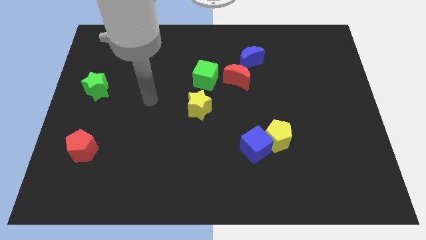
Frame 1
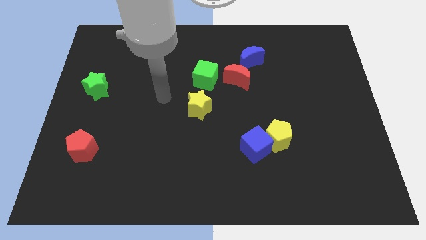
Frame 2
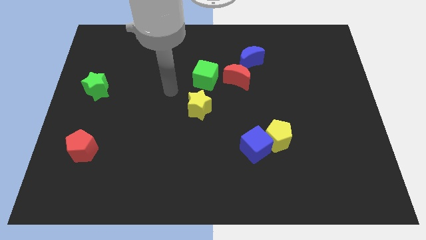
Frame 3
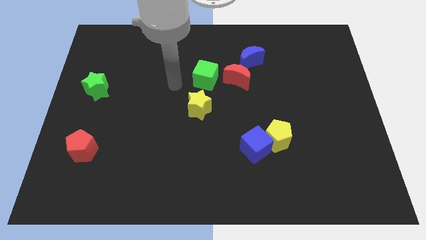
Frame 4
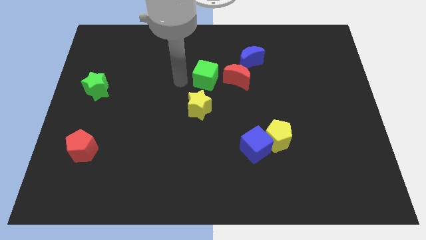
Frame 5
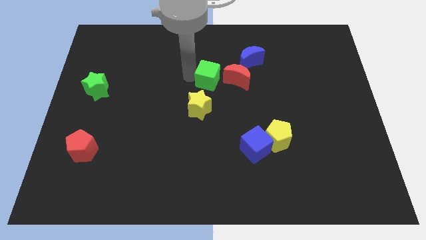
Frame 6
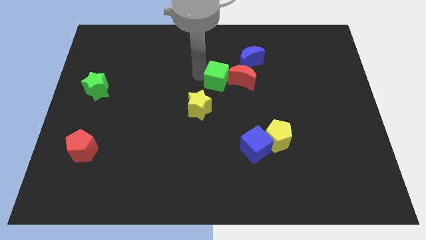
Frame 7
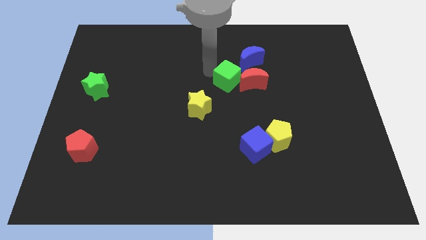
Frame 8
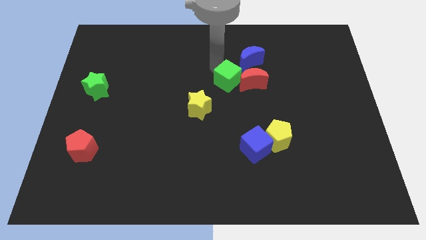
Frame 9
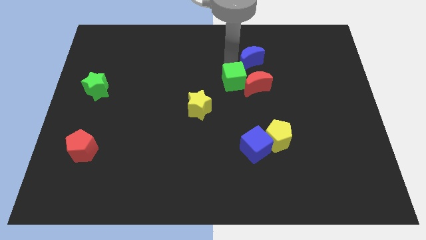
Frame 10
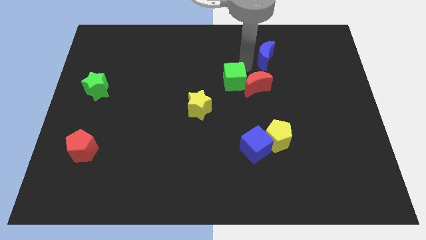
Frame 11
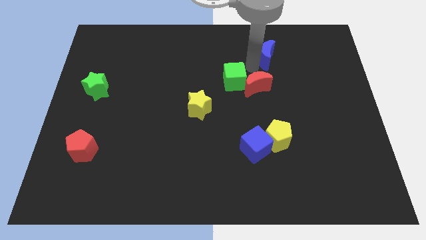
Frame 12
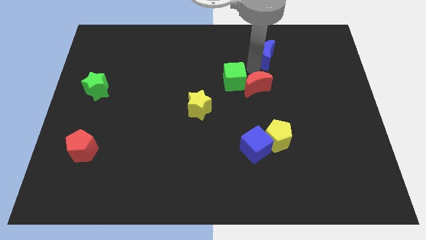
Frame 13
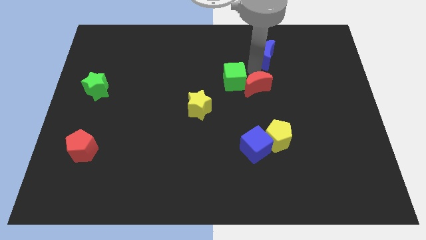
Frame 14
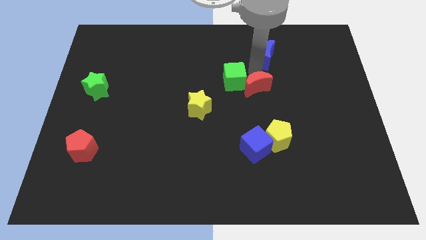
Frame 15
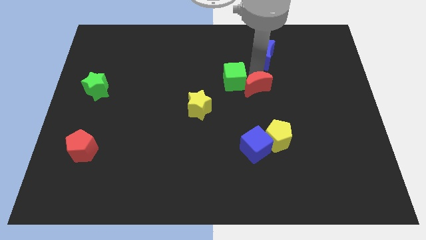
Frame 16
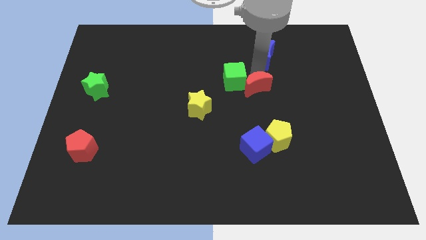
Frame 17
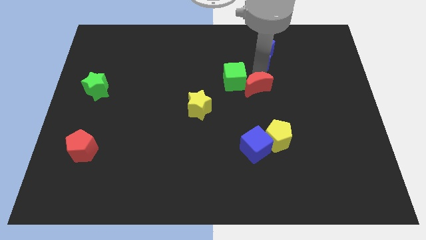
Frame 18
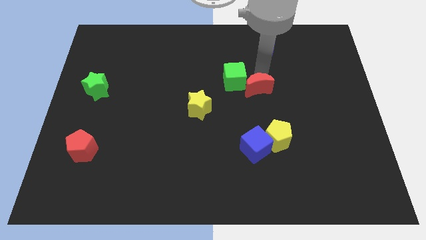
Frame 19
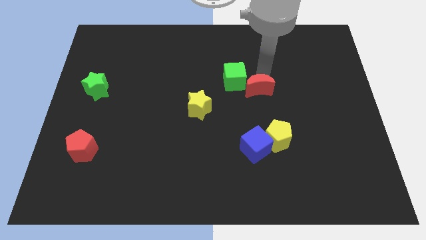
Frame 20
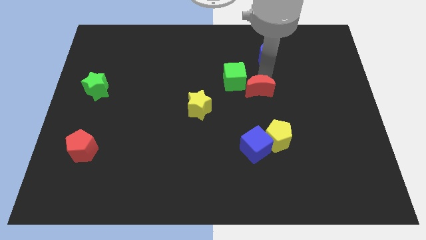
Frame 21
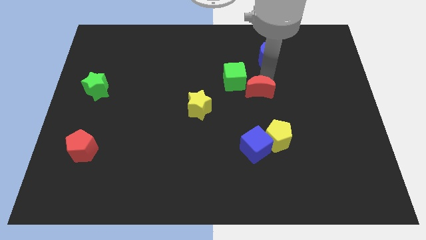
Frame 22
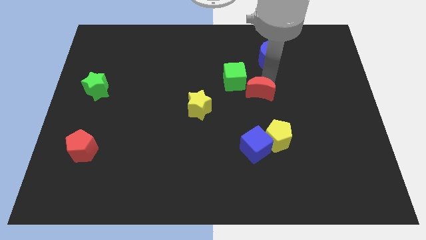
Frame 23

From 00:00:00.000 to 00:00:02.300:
push the red moon downwards and then right a bit

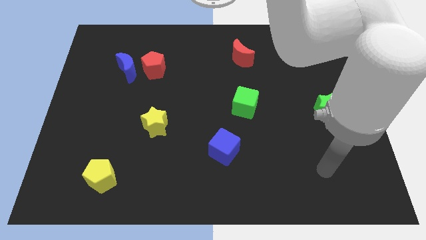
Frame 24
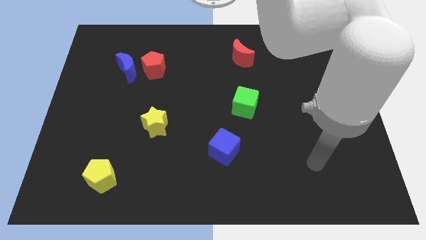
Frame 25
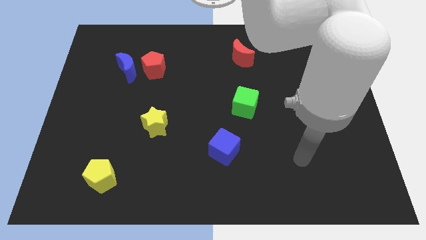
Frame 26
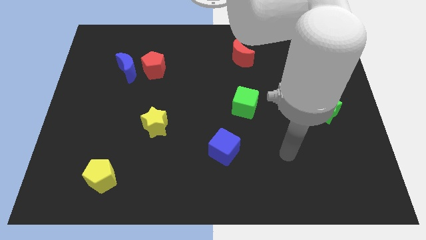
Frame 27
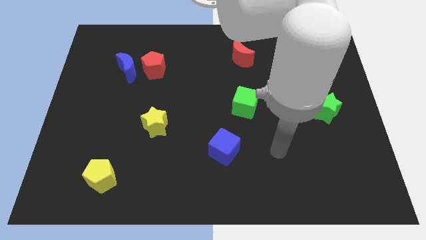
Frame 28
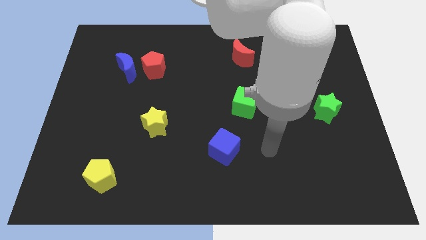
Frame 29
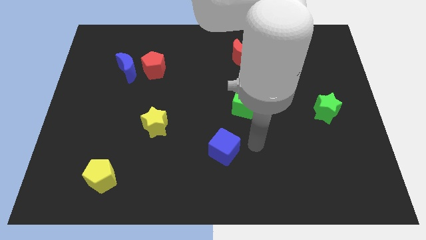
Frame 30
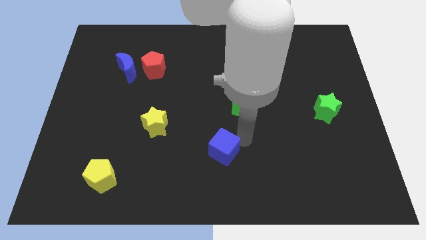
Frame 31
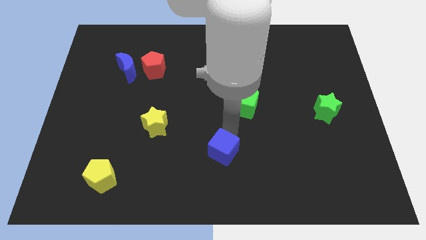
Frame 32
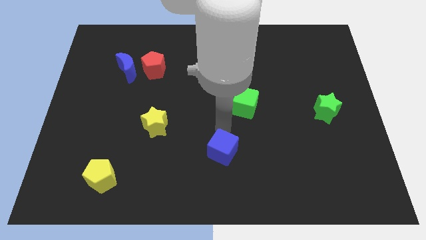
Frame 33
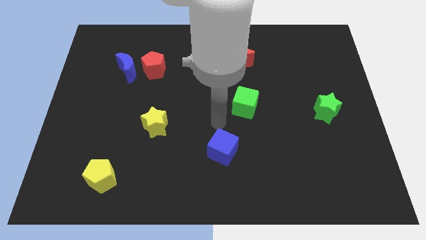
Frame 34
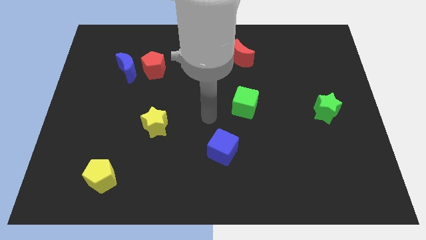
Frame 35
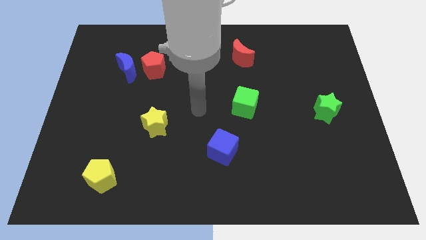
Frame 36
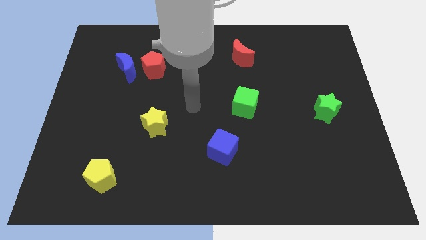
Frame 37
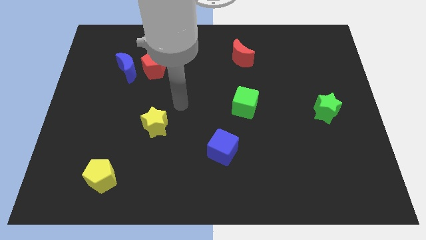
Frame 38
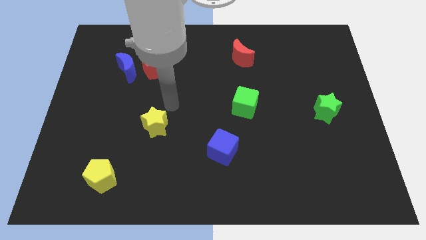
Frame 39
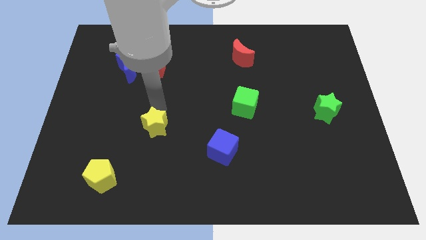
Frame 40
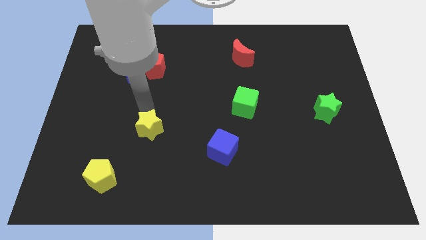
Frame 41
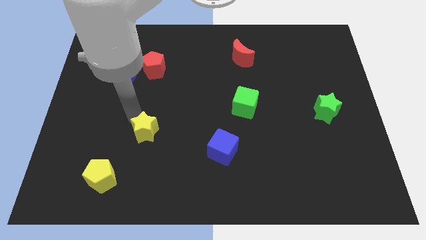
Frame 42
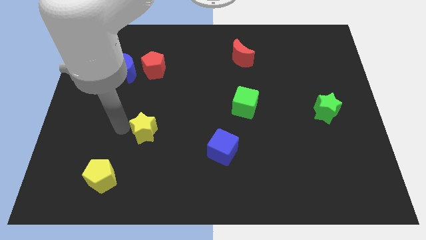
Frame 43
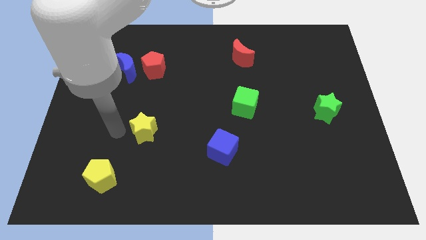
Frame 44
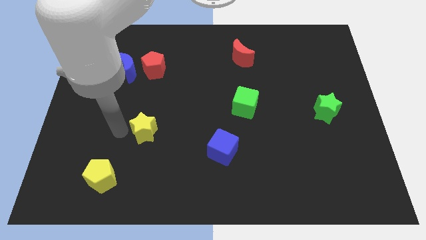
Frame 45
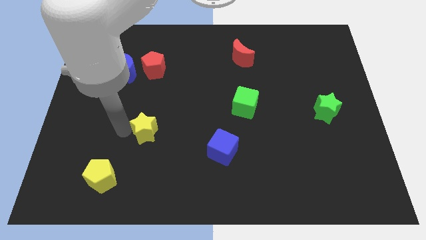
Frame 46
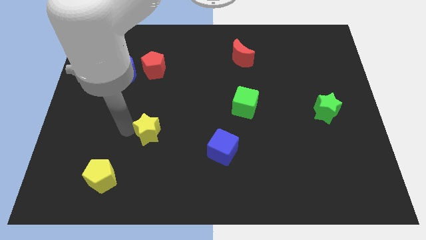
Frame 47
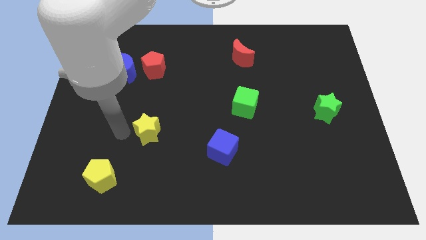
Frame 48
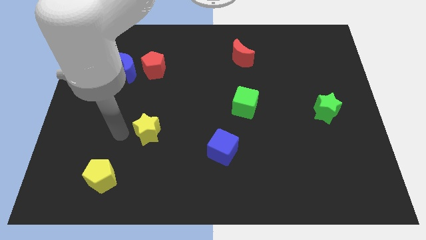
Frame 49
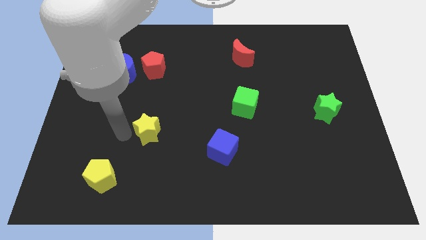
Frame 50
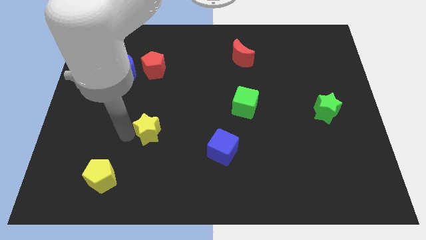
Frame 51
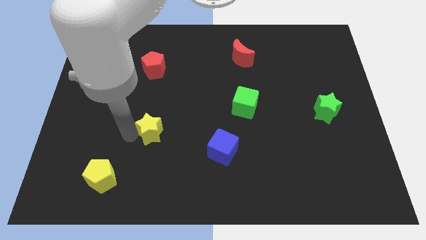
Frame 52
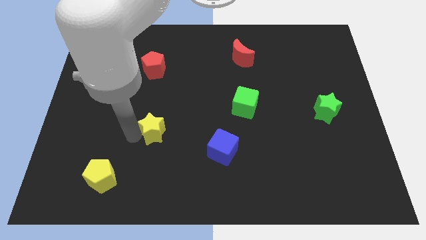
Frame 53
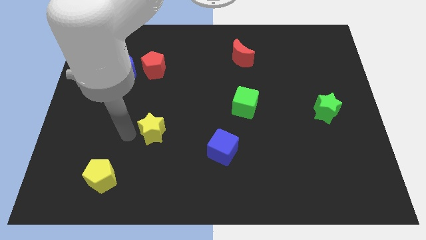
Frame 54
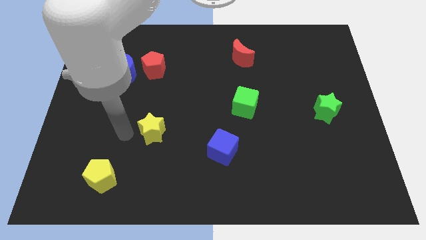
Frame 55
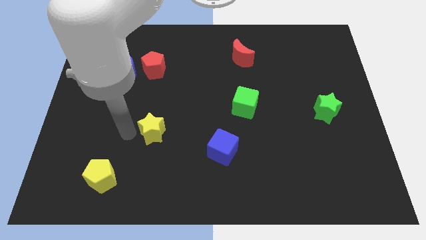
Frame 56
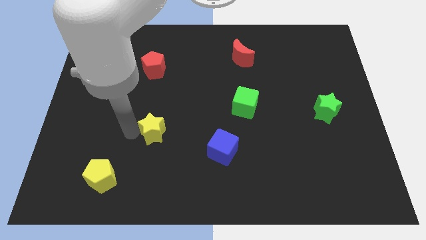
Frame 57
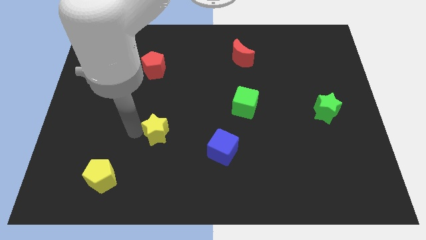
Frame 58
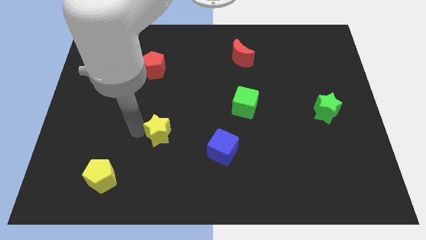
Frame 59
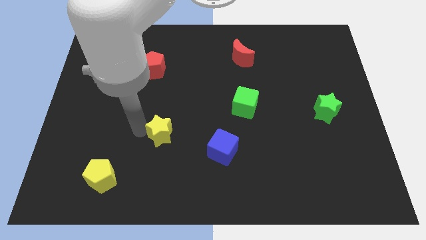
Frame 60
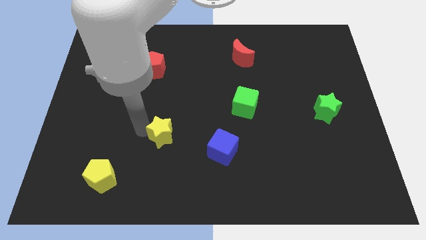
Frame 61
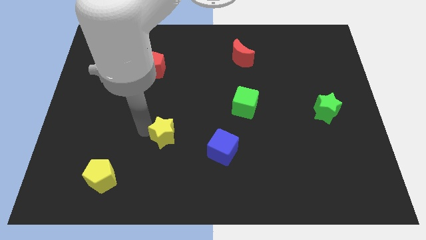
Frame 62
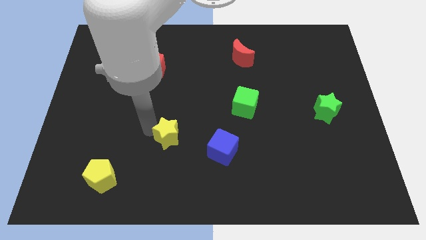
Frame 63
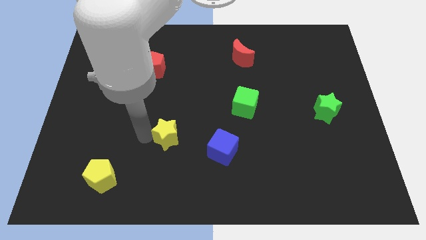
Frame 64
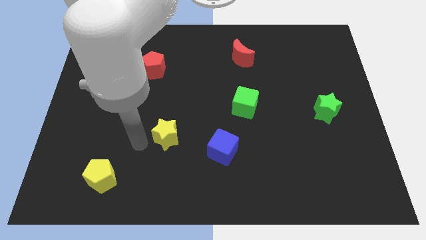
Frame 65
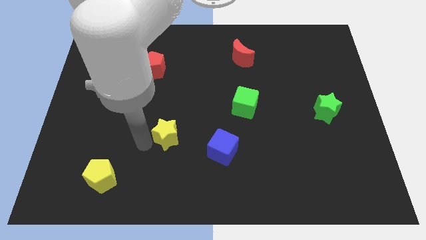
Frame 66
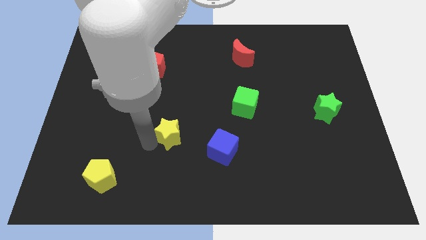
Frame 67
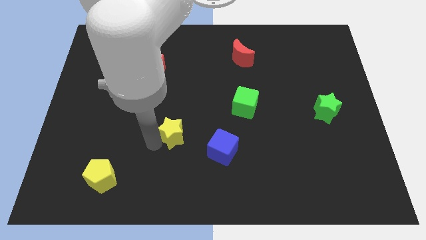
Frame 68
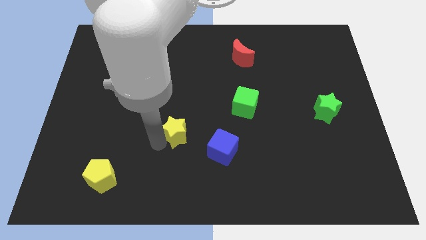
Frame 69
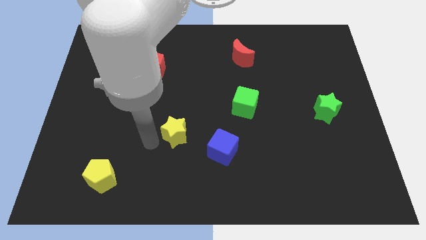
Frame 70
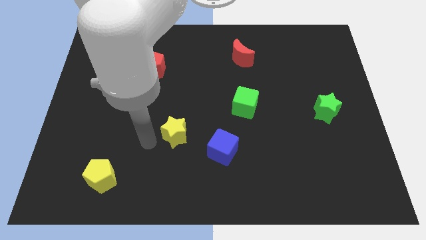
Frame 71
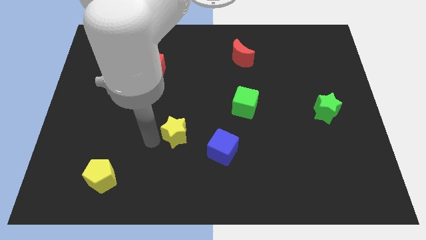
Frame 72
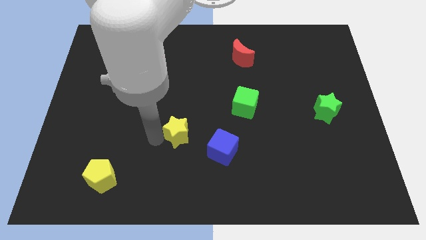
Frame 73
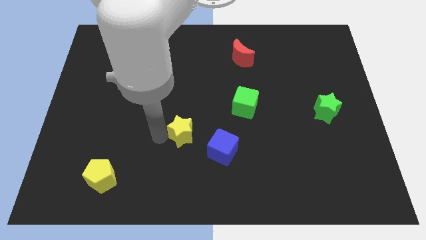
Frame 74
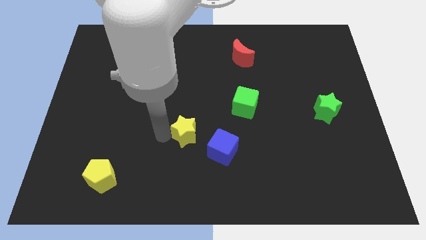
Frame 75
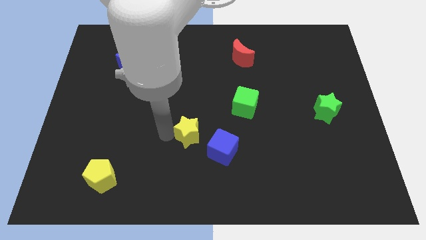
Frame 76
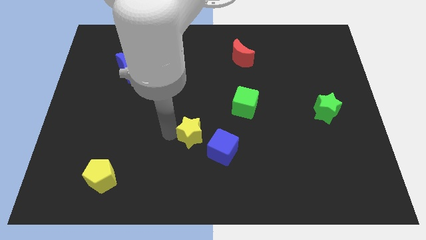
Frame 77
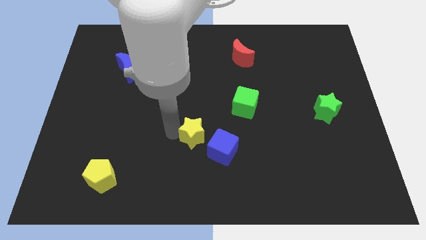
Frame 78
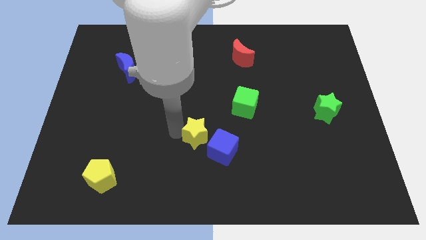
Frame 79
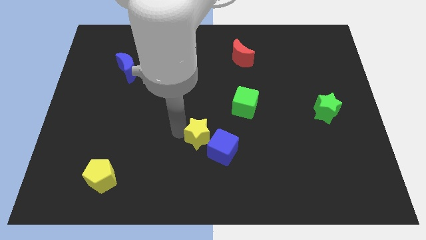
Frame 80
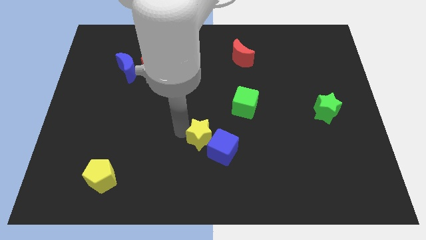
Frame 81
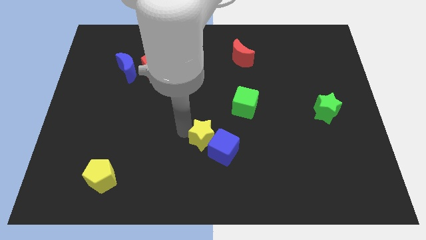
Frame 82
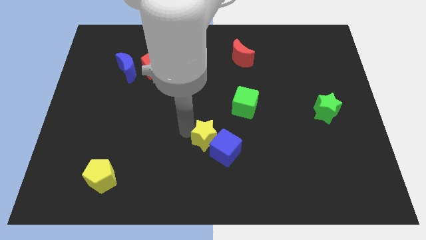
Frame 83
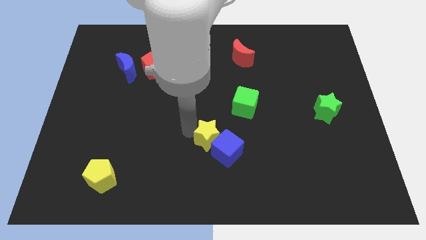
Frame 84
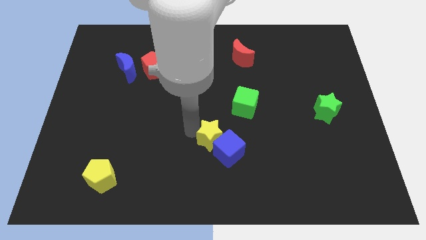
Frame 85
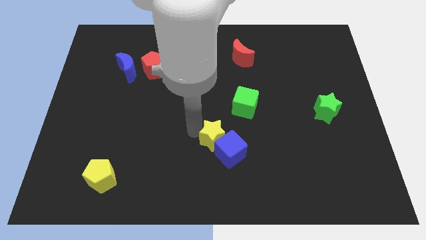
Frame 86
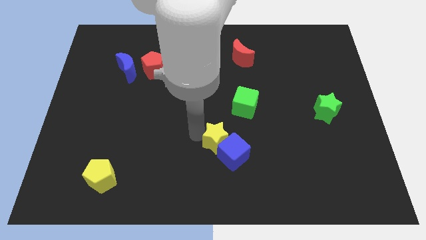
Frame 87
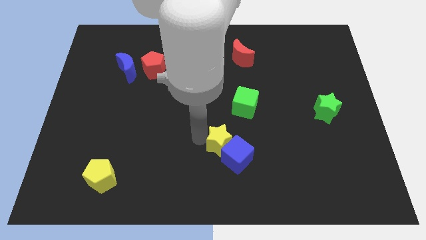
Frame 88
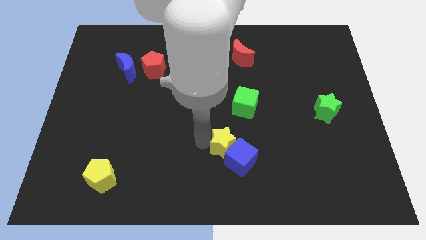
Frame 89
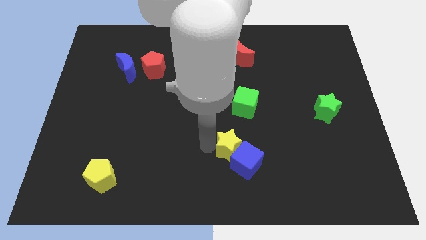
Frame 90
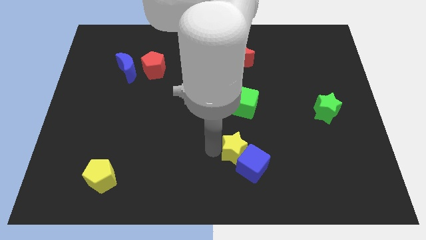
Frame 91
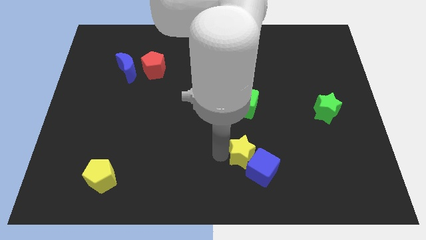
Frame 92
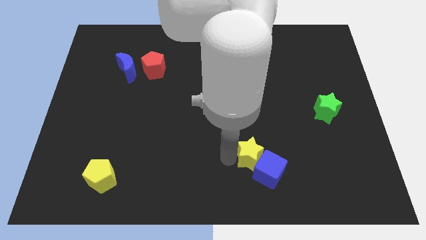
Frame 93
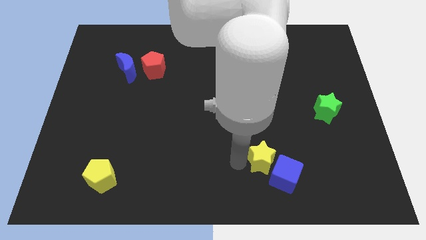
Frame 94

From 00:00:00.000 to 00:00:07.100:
move the yellow star right
